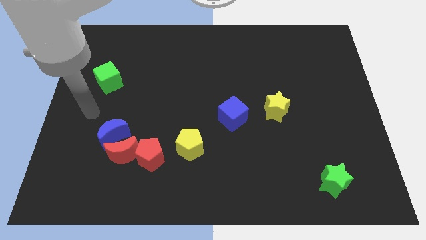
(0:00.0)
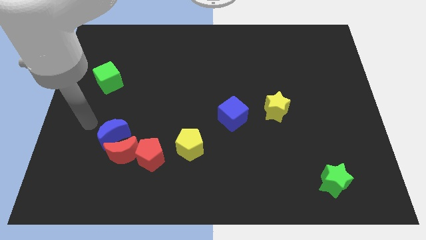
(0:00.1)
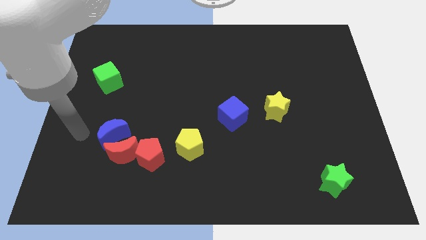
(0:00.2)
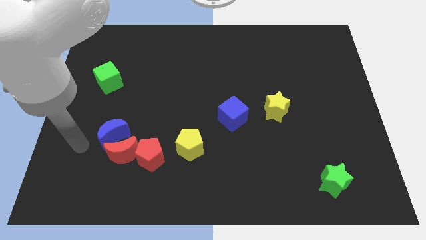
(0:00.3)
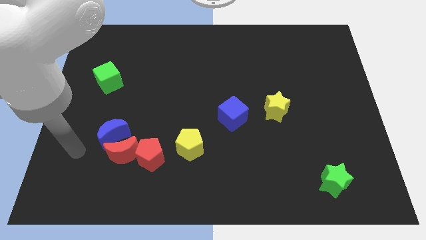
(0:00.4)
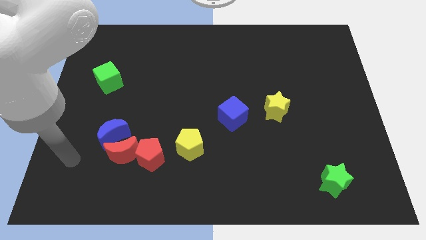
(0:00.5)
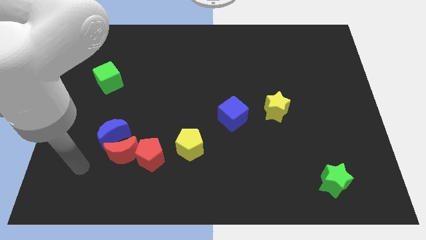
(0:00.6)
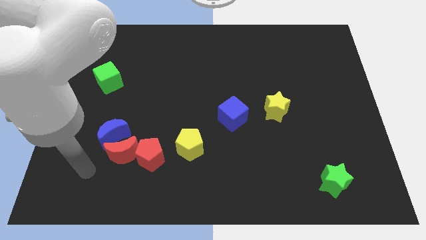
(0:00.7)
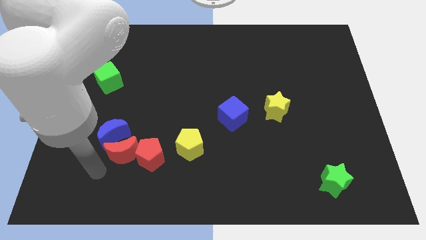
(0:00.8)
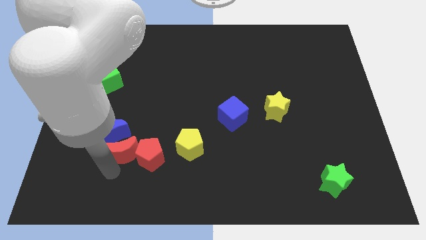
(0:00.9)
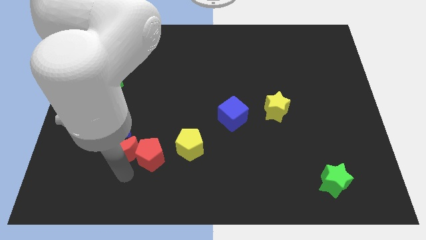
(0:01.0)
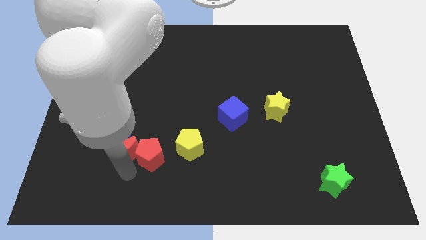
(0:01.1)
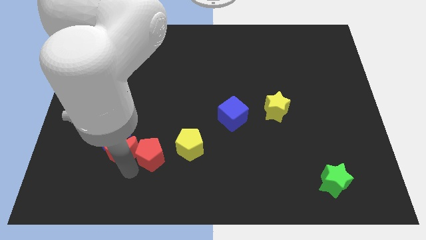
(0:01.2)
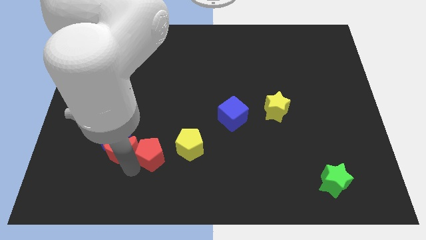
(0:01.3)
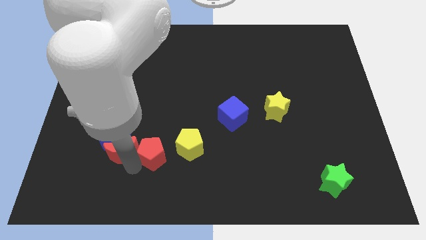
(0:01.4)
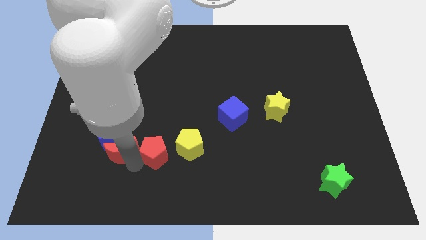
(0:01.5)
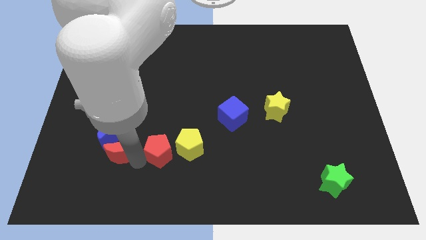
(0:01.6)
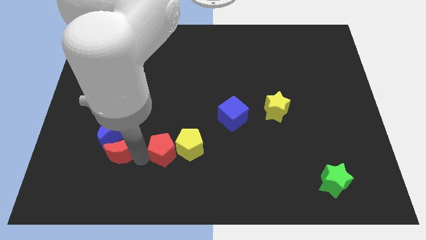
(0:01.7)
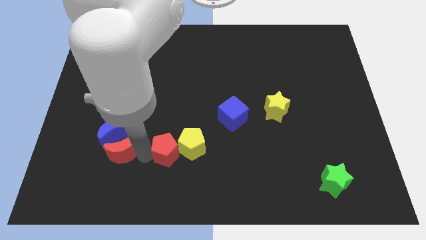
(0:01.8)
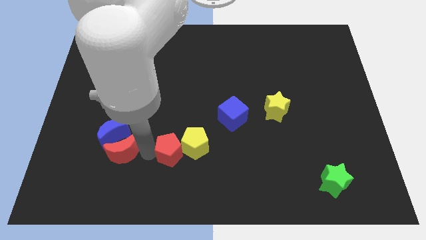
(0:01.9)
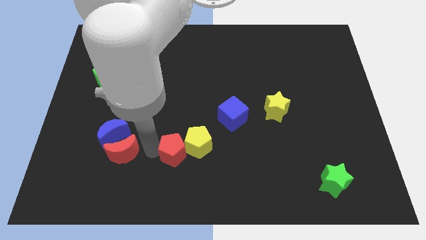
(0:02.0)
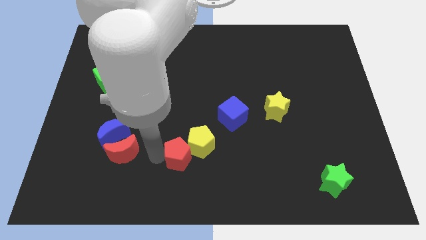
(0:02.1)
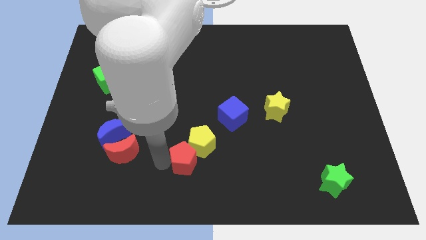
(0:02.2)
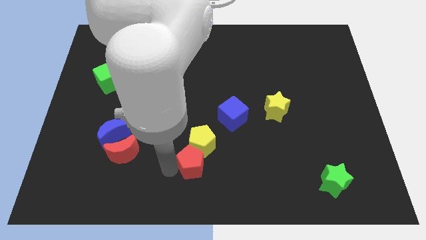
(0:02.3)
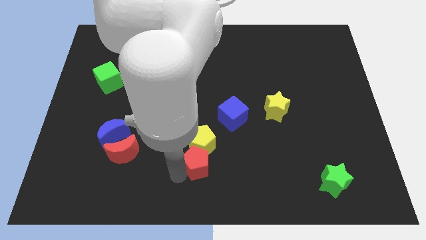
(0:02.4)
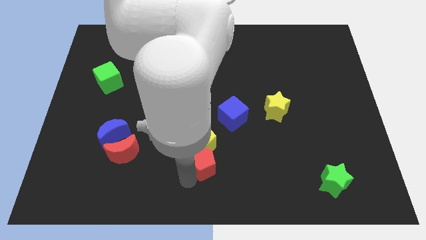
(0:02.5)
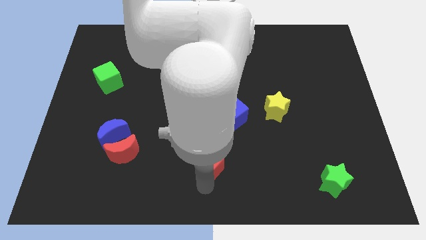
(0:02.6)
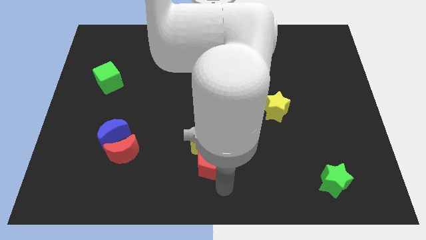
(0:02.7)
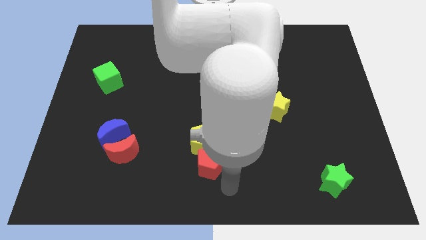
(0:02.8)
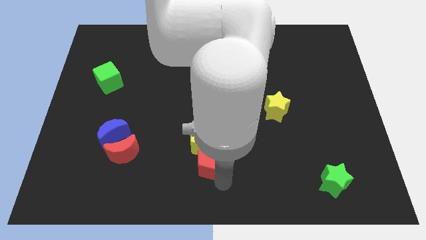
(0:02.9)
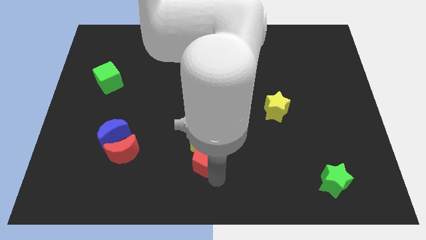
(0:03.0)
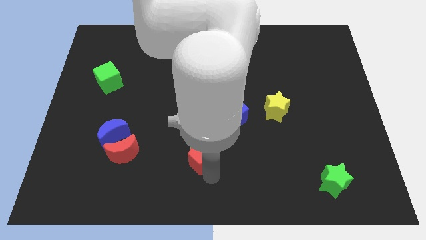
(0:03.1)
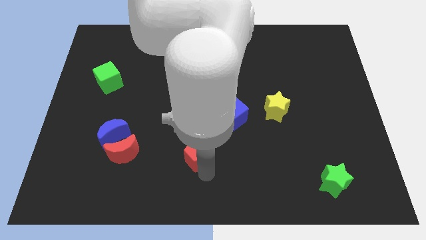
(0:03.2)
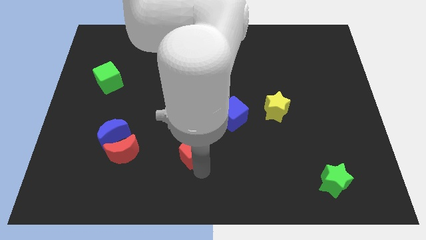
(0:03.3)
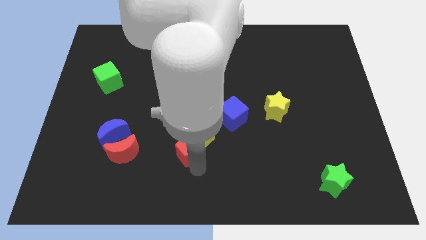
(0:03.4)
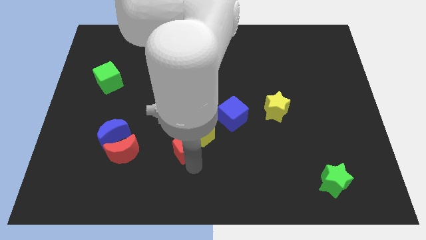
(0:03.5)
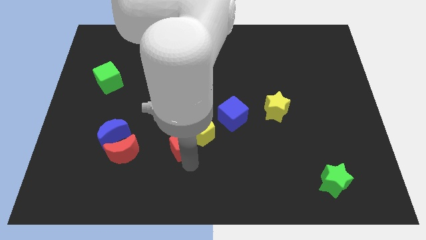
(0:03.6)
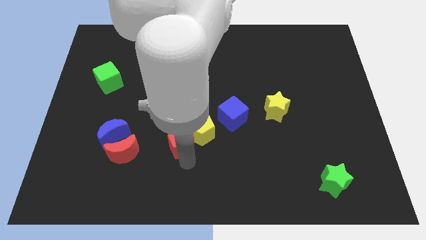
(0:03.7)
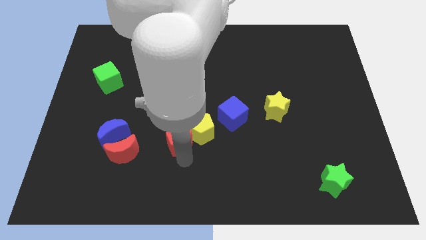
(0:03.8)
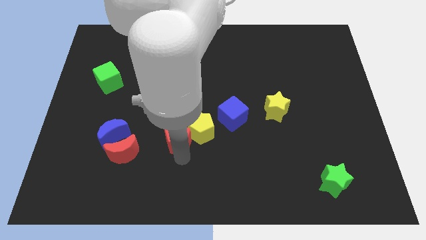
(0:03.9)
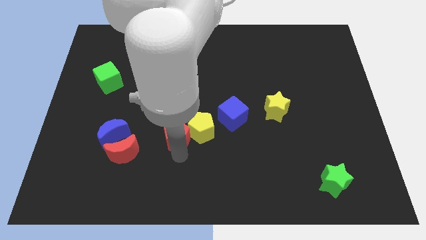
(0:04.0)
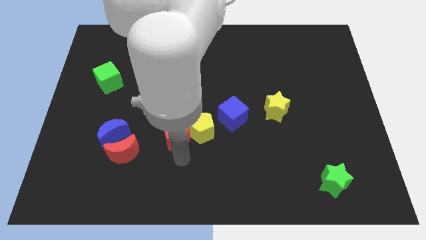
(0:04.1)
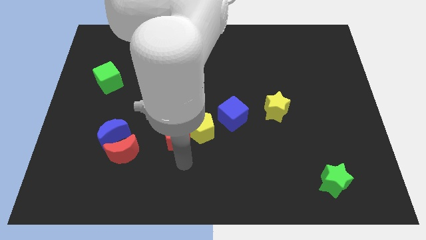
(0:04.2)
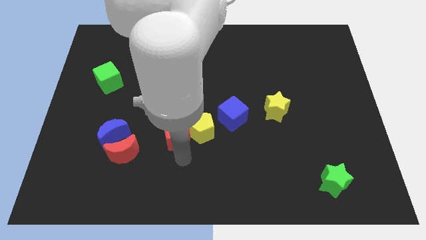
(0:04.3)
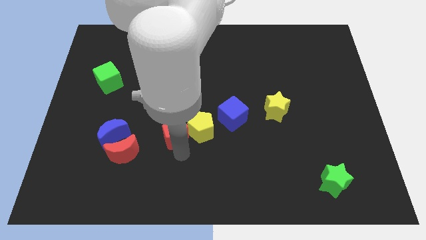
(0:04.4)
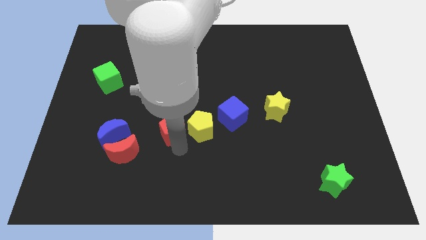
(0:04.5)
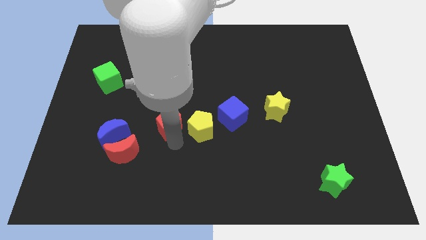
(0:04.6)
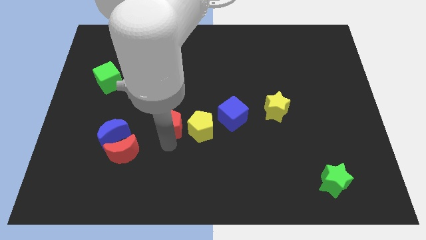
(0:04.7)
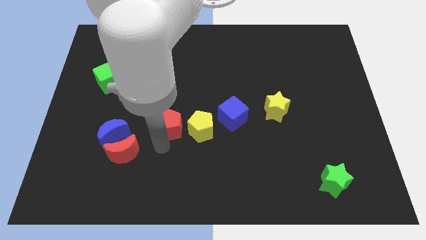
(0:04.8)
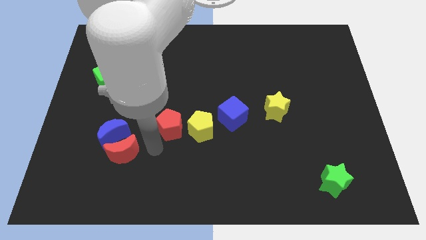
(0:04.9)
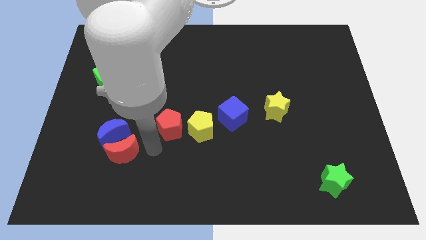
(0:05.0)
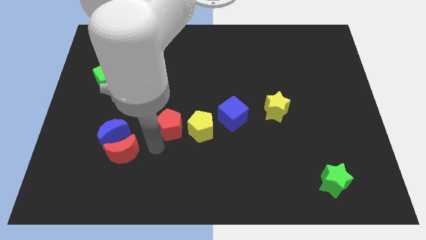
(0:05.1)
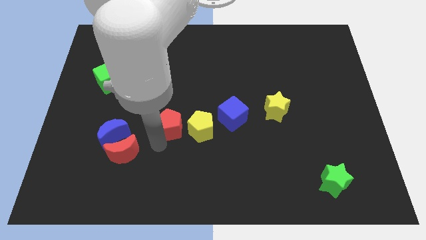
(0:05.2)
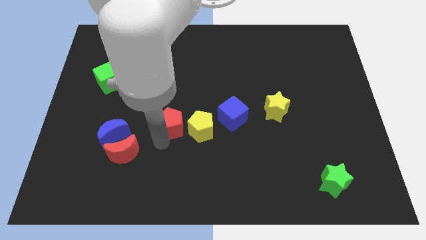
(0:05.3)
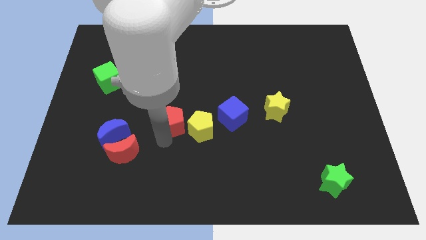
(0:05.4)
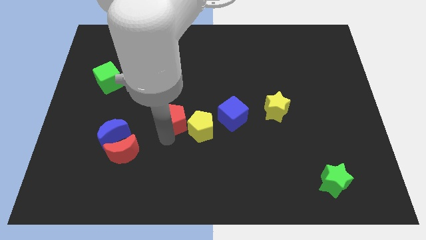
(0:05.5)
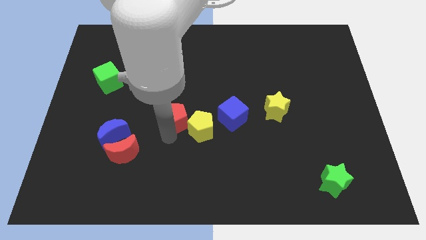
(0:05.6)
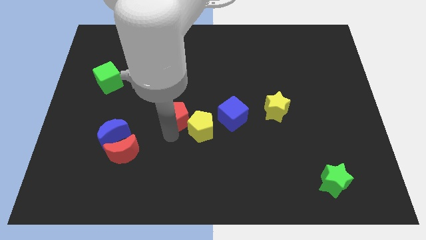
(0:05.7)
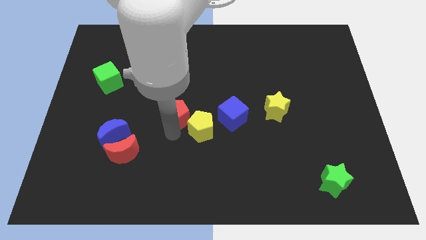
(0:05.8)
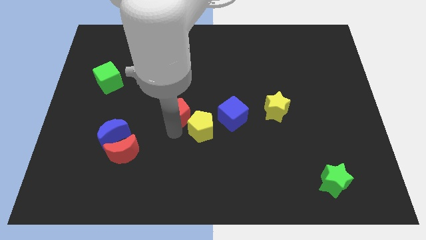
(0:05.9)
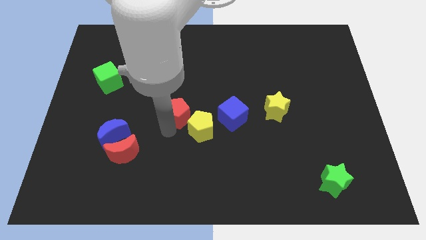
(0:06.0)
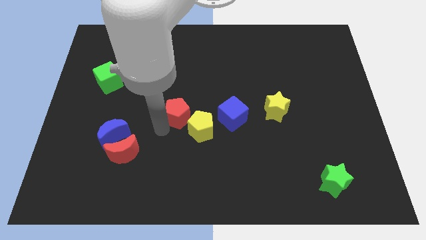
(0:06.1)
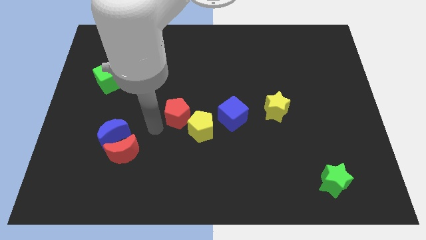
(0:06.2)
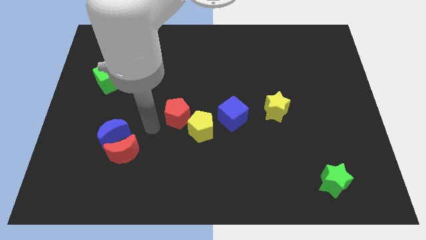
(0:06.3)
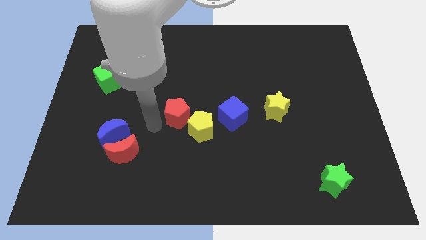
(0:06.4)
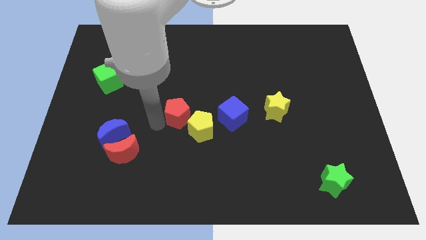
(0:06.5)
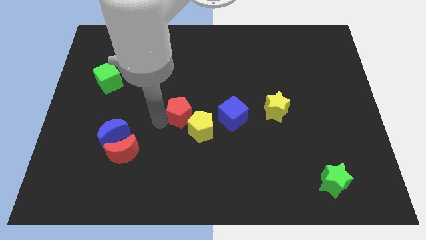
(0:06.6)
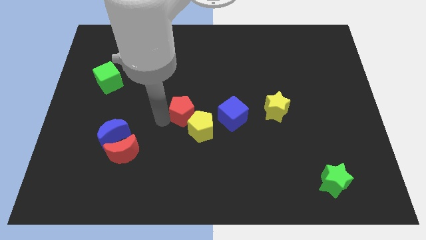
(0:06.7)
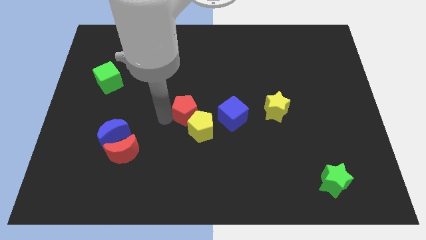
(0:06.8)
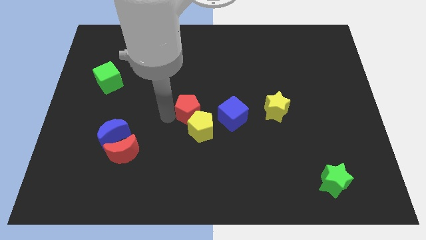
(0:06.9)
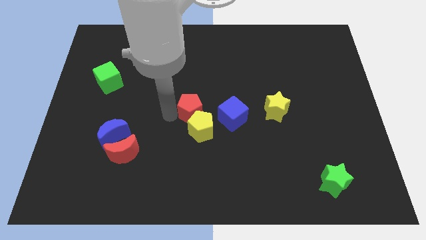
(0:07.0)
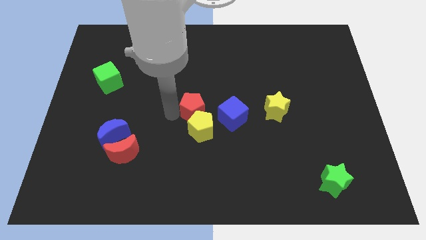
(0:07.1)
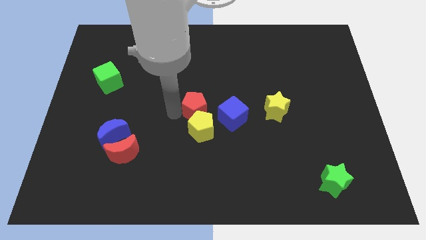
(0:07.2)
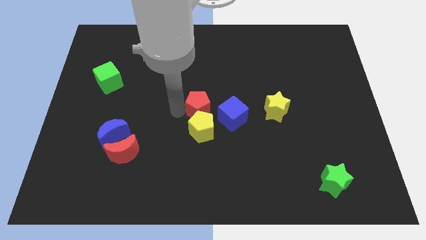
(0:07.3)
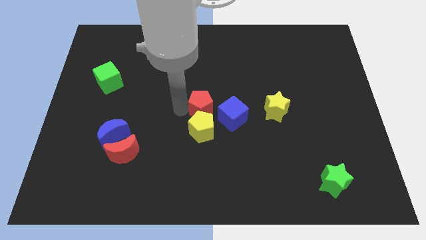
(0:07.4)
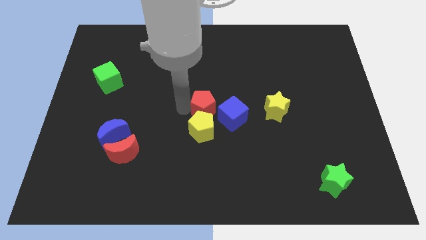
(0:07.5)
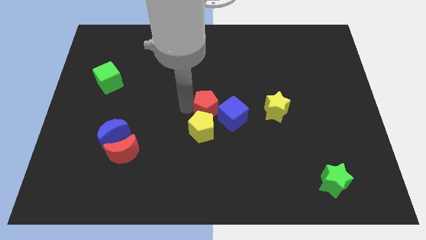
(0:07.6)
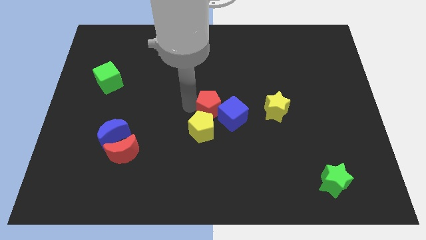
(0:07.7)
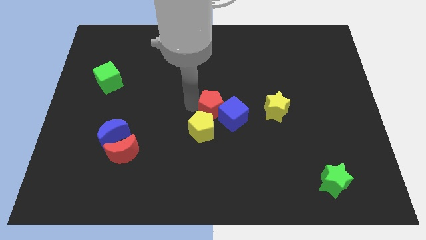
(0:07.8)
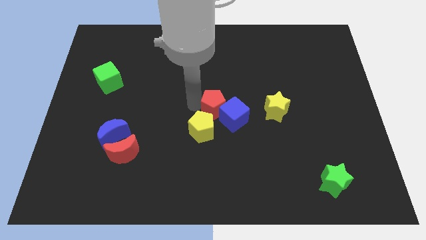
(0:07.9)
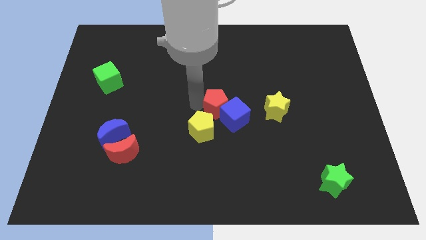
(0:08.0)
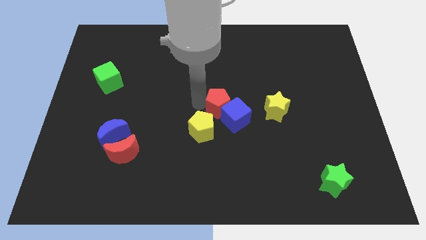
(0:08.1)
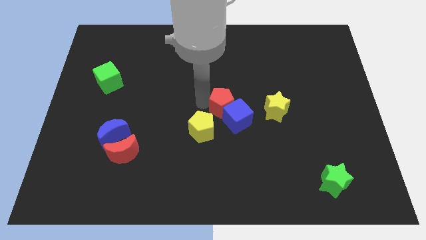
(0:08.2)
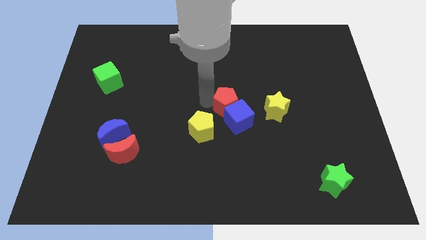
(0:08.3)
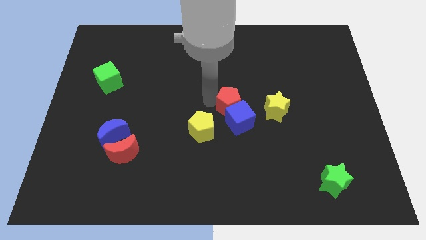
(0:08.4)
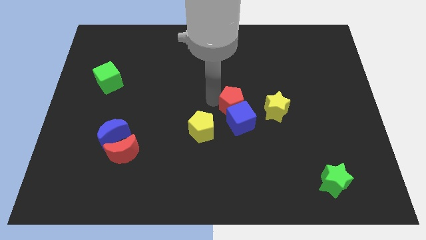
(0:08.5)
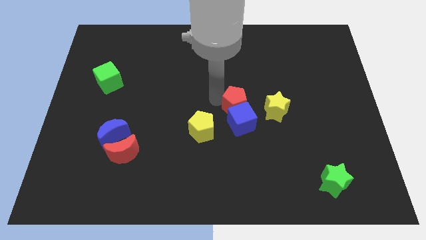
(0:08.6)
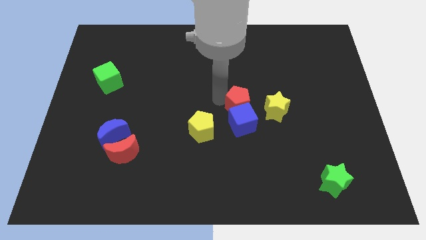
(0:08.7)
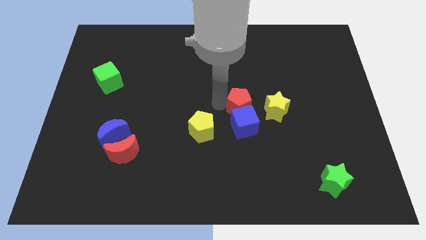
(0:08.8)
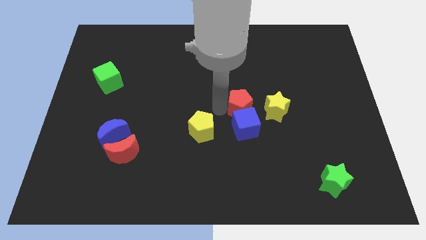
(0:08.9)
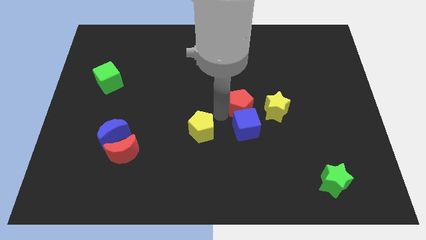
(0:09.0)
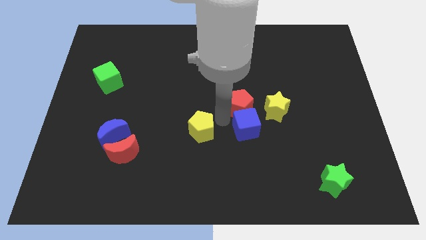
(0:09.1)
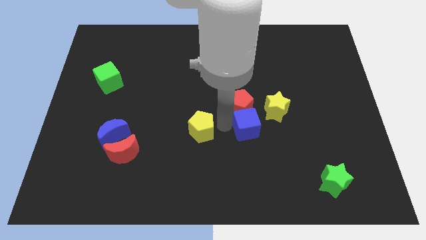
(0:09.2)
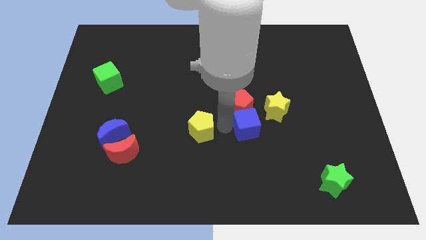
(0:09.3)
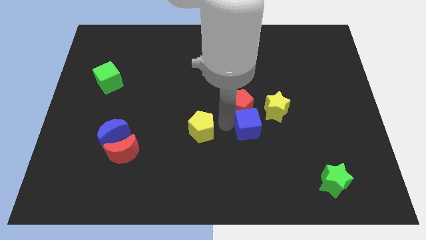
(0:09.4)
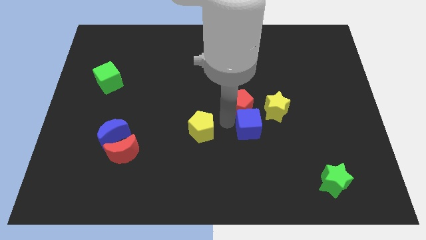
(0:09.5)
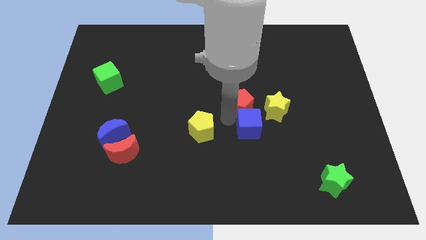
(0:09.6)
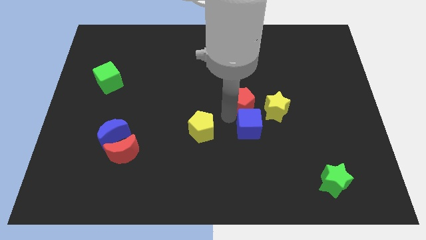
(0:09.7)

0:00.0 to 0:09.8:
put the red pentagon diagonally up and to the left of the yellow star
